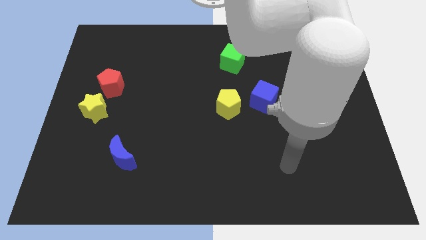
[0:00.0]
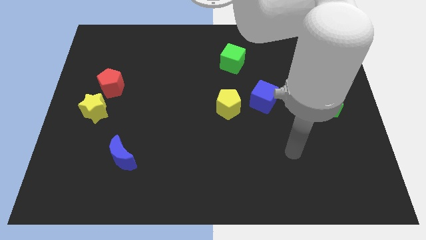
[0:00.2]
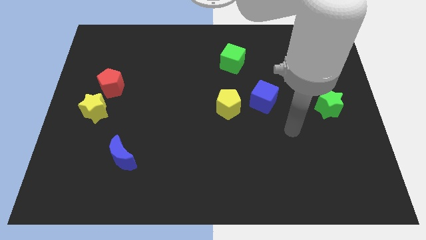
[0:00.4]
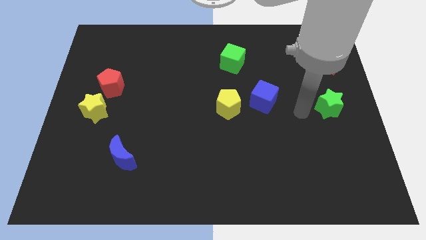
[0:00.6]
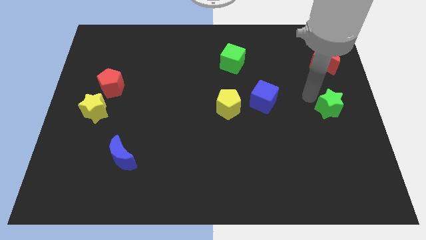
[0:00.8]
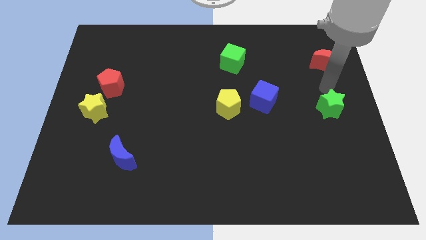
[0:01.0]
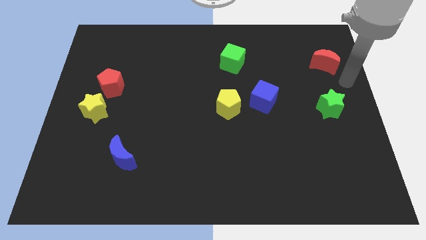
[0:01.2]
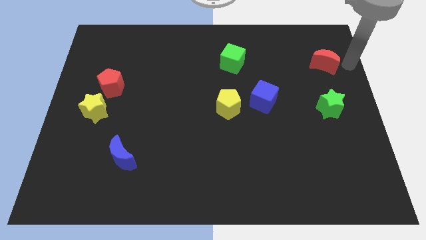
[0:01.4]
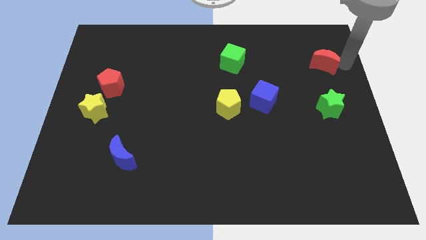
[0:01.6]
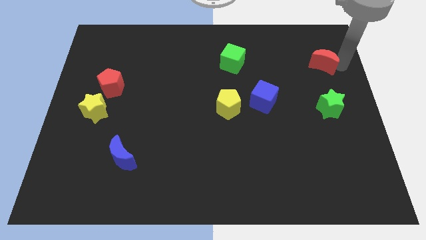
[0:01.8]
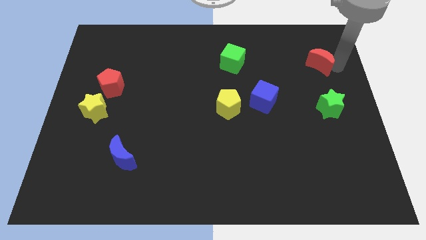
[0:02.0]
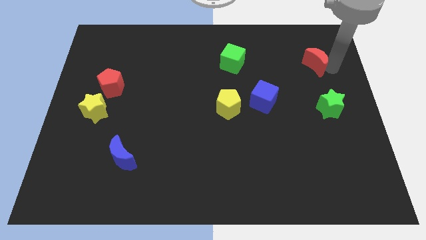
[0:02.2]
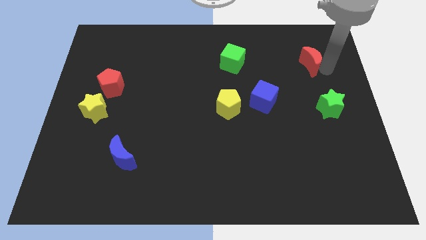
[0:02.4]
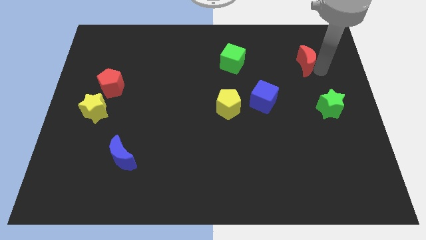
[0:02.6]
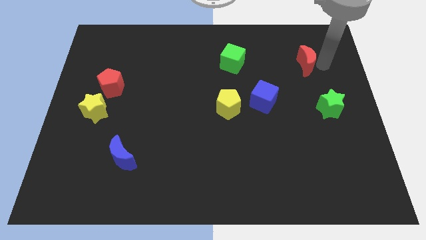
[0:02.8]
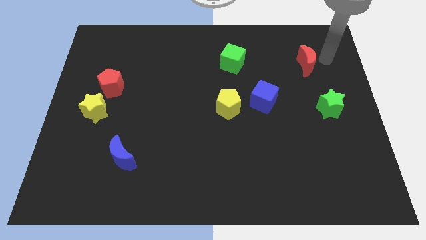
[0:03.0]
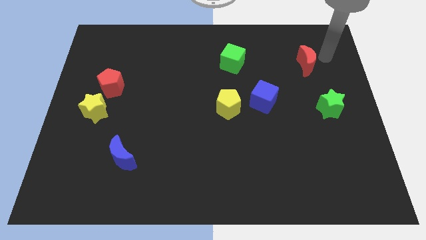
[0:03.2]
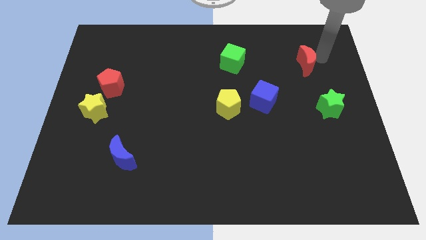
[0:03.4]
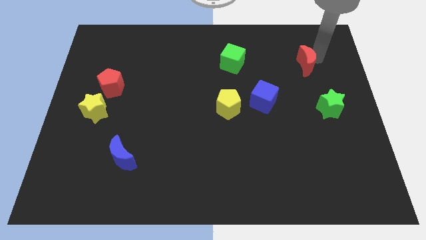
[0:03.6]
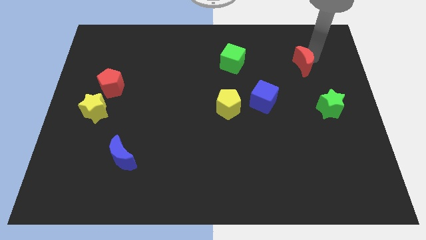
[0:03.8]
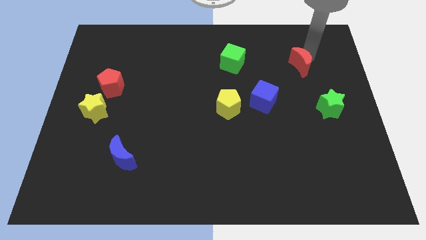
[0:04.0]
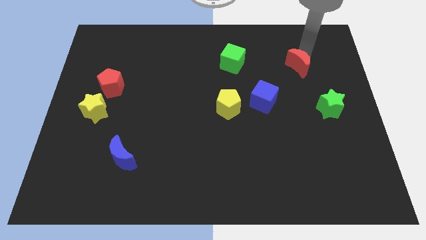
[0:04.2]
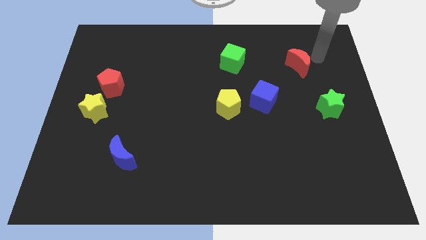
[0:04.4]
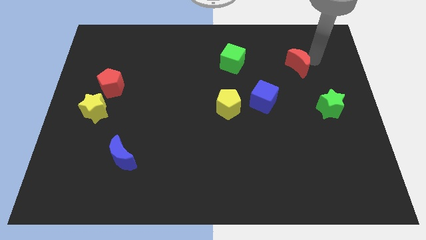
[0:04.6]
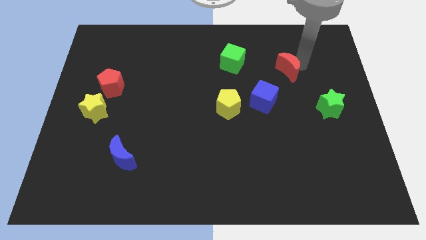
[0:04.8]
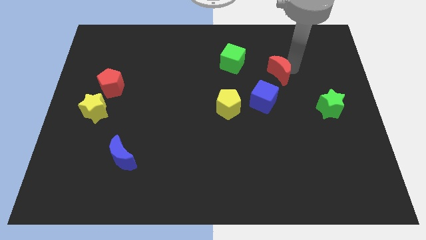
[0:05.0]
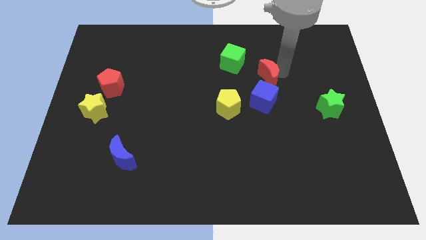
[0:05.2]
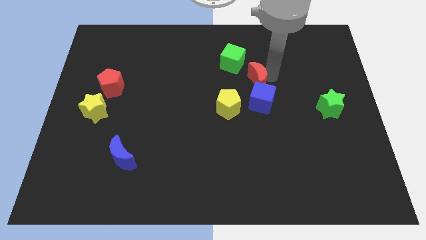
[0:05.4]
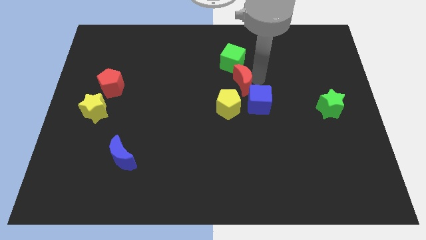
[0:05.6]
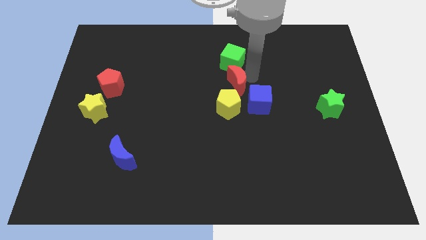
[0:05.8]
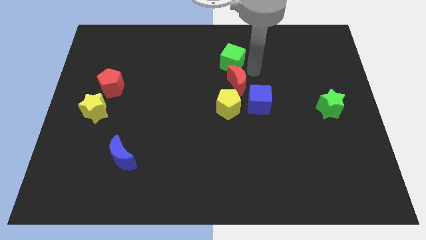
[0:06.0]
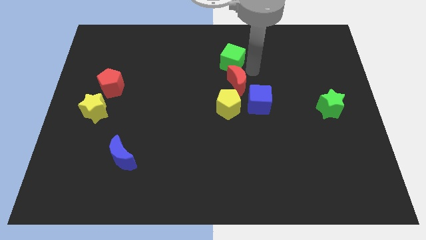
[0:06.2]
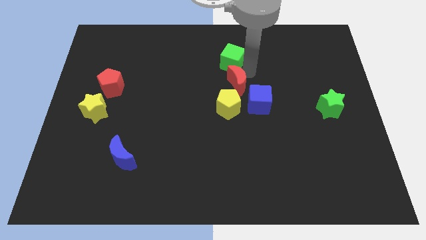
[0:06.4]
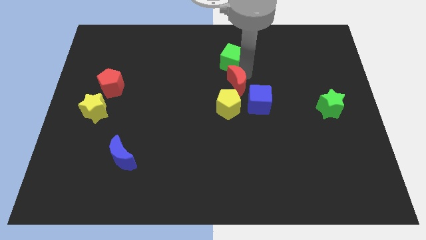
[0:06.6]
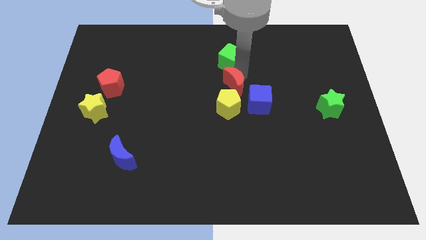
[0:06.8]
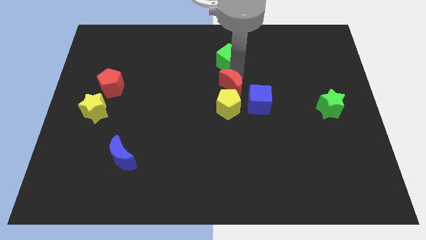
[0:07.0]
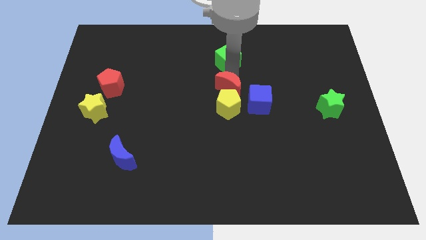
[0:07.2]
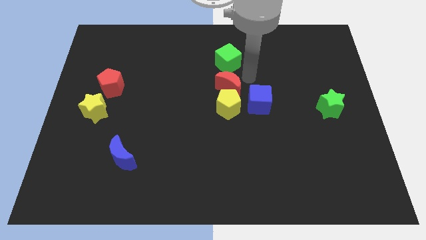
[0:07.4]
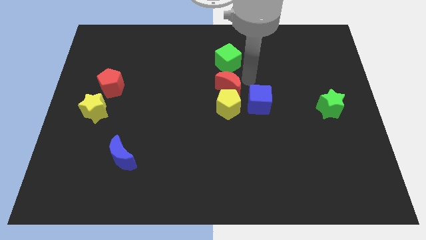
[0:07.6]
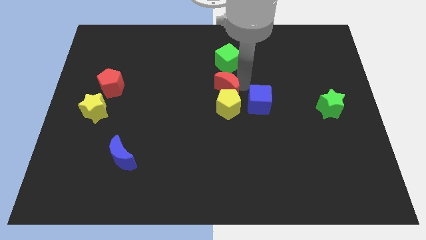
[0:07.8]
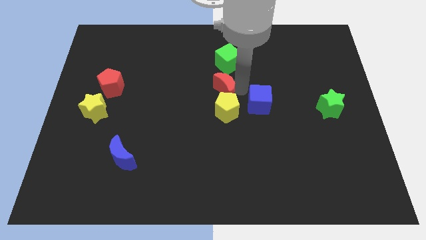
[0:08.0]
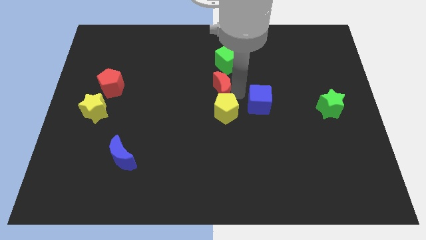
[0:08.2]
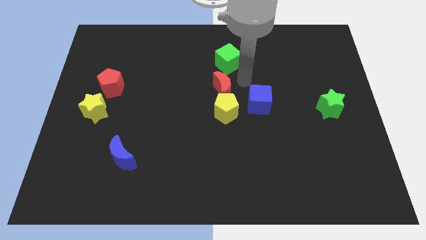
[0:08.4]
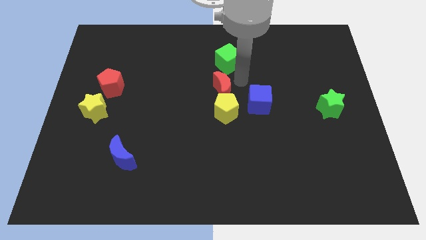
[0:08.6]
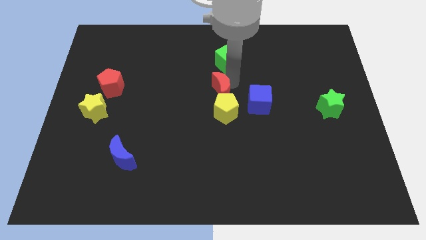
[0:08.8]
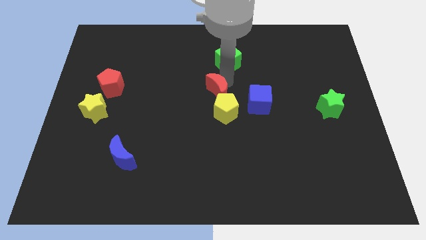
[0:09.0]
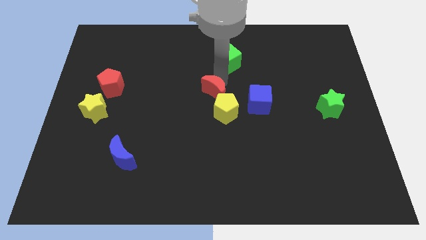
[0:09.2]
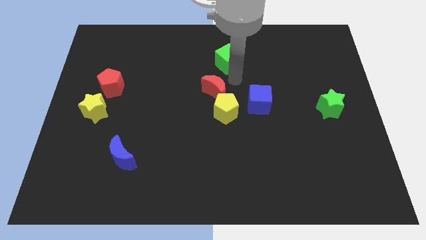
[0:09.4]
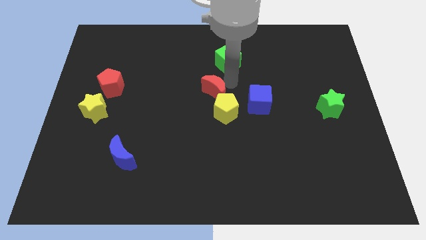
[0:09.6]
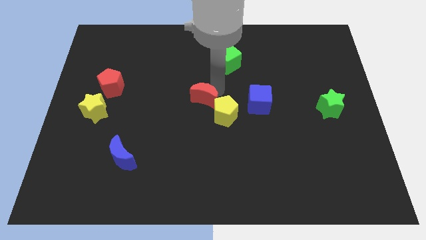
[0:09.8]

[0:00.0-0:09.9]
push the red moon to the left of the yellow pentagon

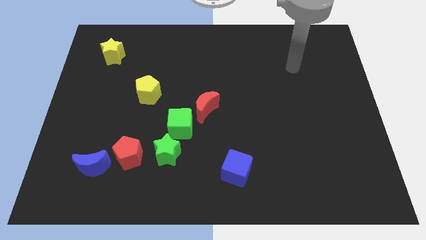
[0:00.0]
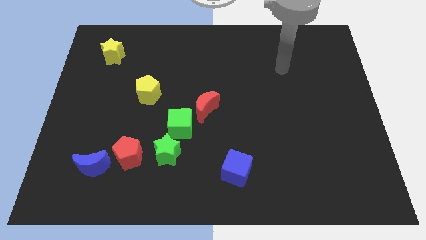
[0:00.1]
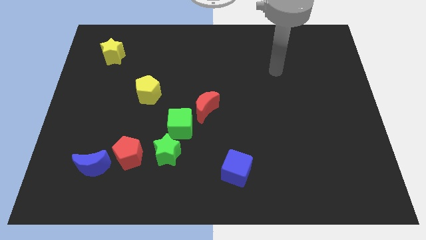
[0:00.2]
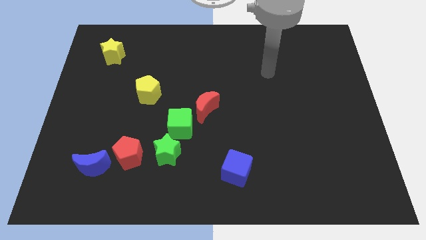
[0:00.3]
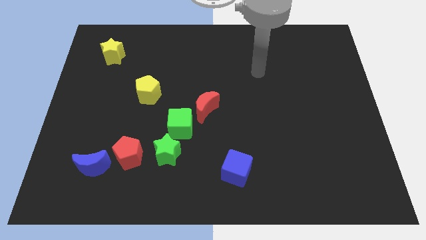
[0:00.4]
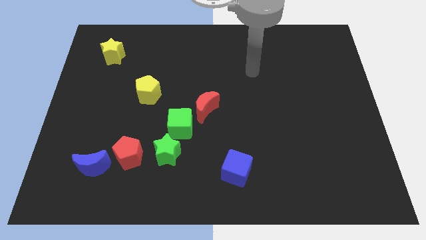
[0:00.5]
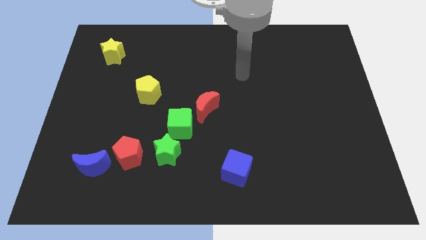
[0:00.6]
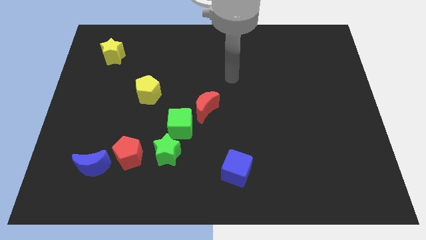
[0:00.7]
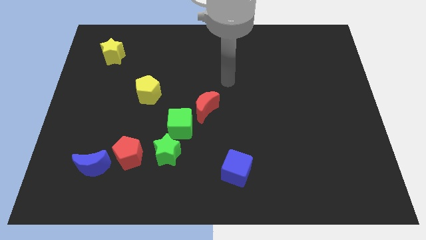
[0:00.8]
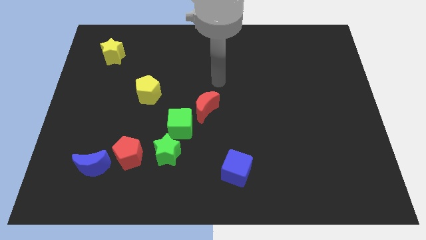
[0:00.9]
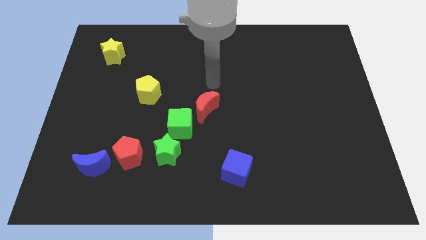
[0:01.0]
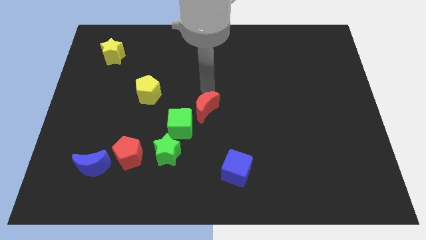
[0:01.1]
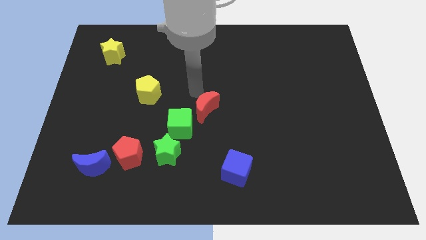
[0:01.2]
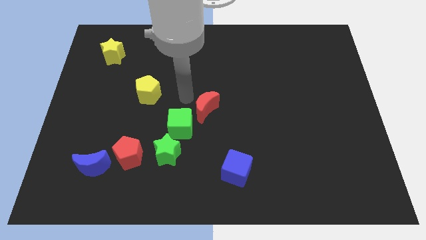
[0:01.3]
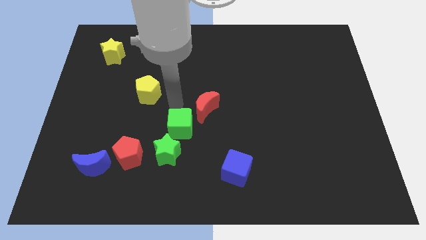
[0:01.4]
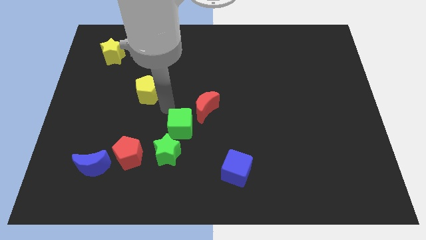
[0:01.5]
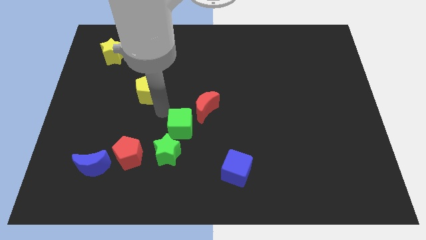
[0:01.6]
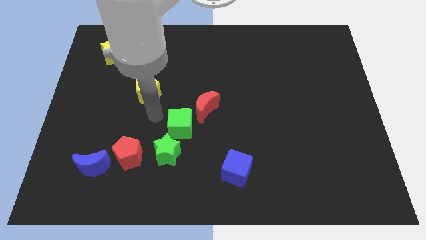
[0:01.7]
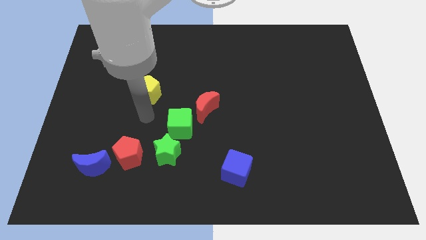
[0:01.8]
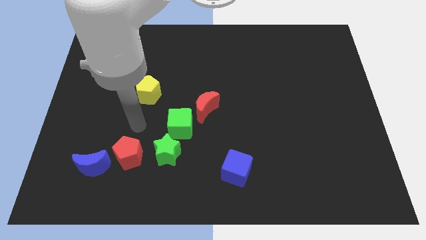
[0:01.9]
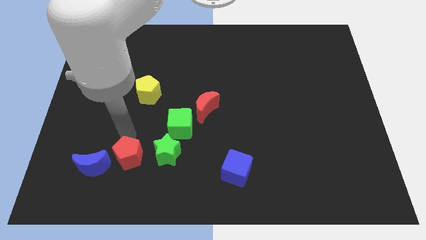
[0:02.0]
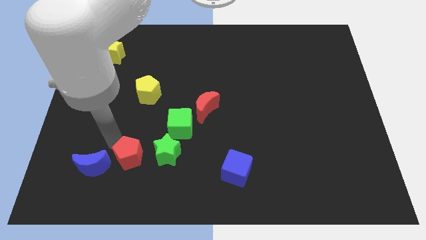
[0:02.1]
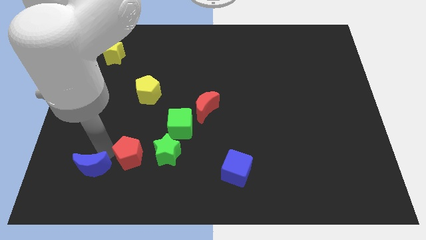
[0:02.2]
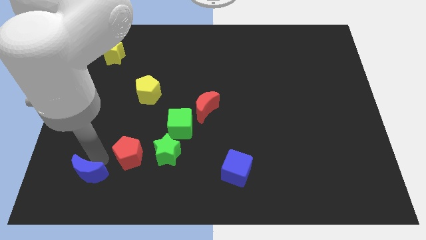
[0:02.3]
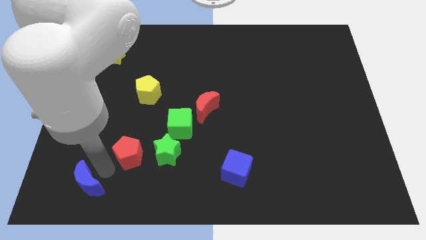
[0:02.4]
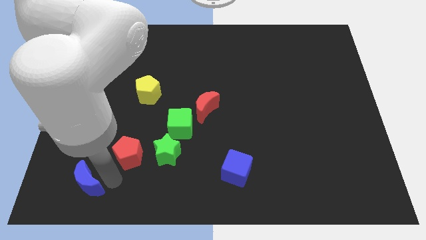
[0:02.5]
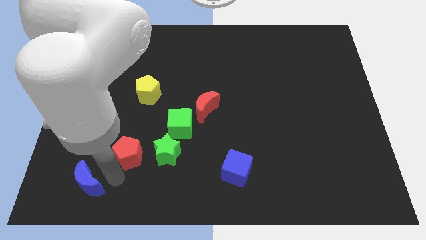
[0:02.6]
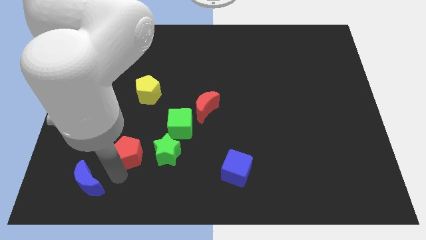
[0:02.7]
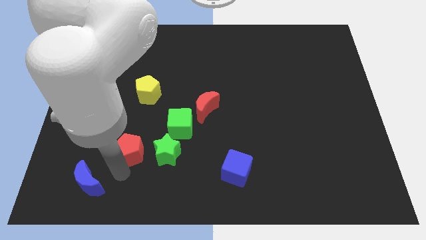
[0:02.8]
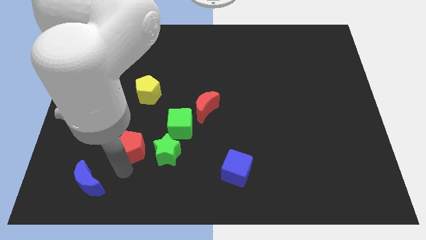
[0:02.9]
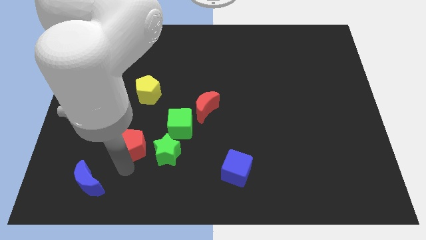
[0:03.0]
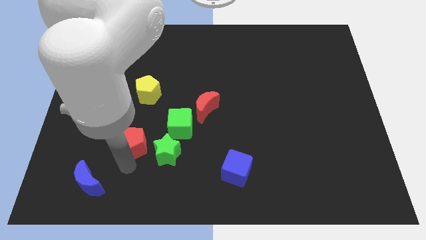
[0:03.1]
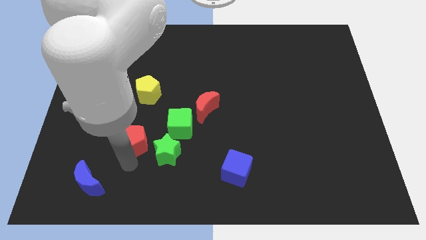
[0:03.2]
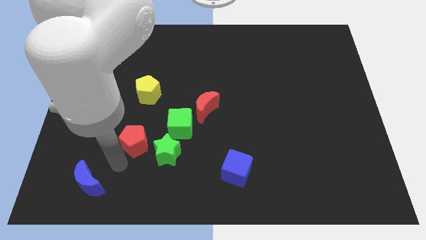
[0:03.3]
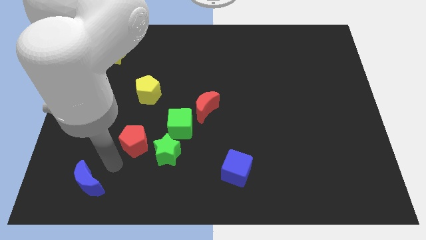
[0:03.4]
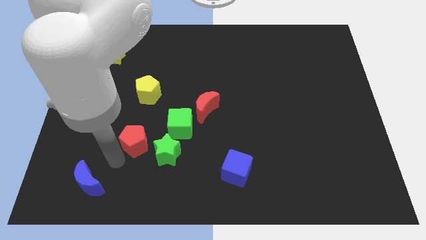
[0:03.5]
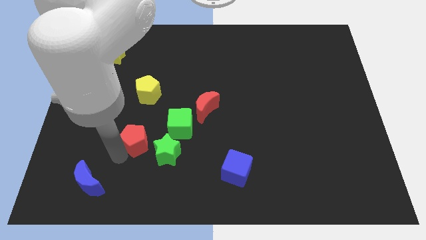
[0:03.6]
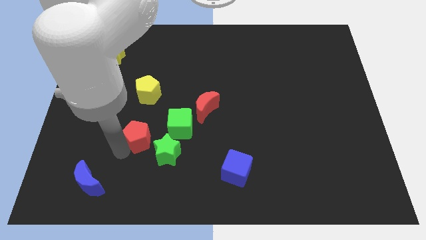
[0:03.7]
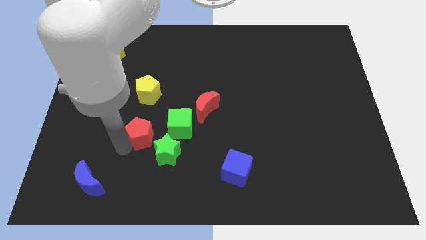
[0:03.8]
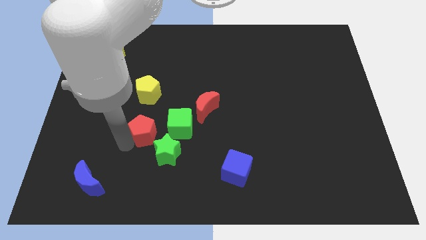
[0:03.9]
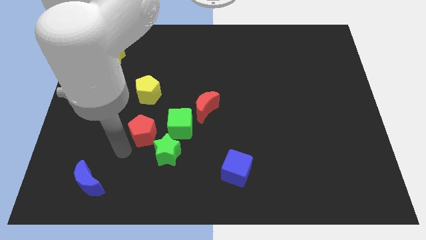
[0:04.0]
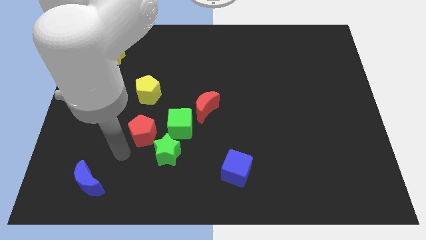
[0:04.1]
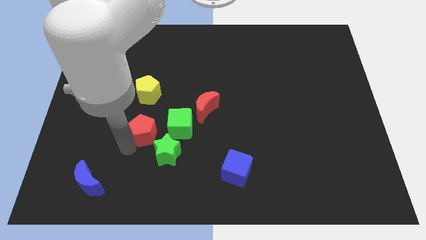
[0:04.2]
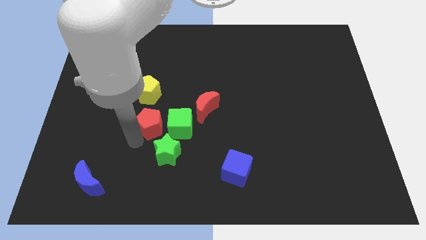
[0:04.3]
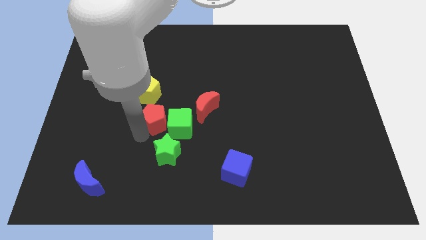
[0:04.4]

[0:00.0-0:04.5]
slide the red pentagon to the bottom right side of the yellow pentagon
